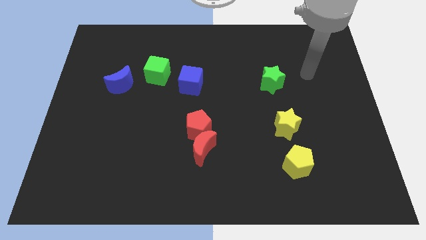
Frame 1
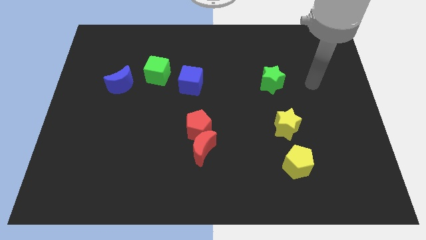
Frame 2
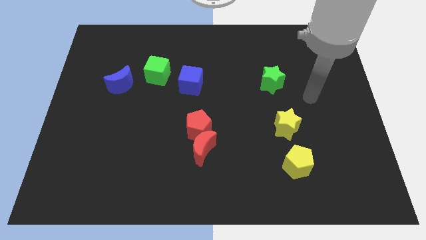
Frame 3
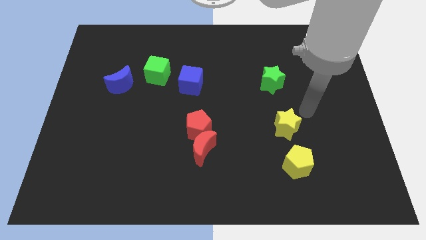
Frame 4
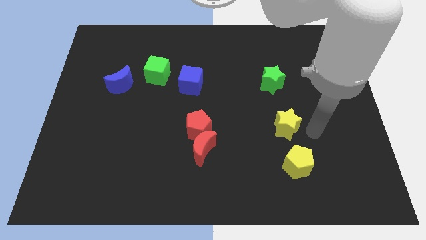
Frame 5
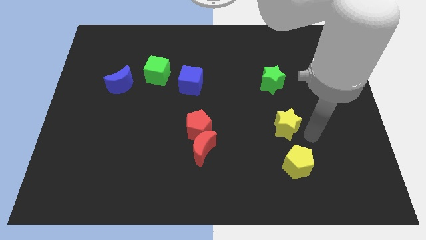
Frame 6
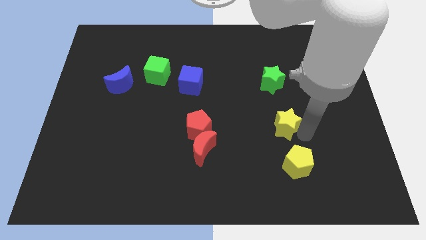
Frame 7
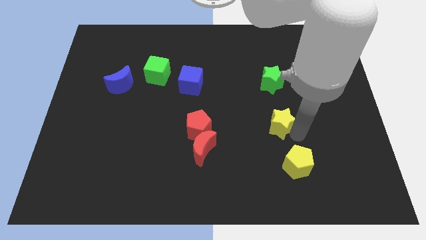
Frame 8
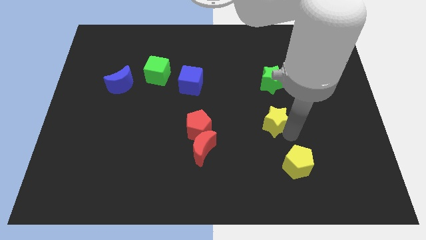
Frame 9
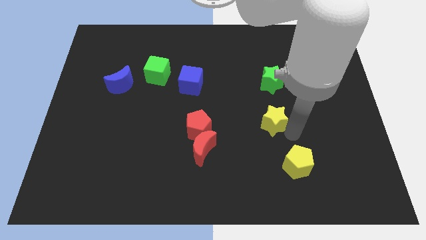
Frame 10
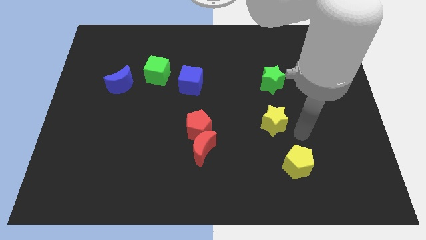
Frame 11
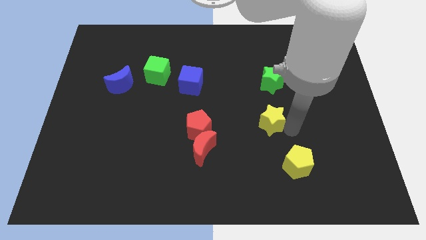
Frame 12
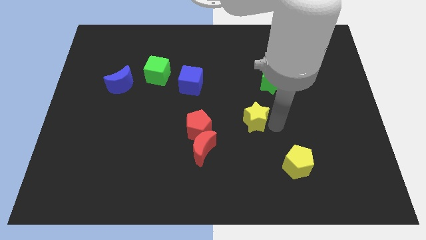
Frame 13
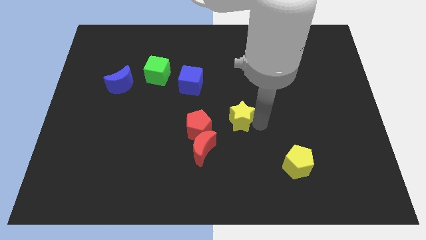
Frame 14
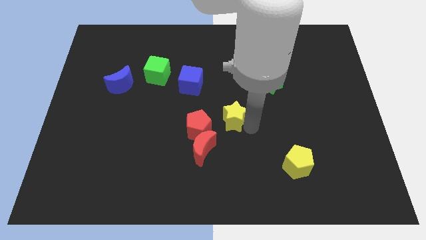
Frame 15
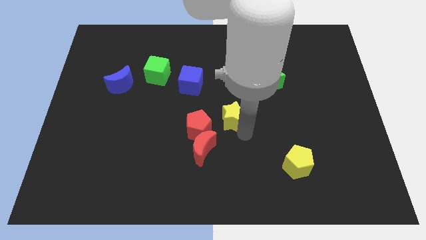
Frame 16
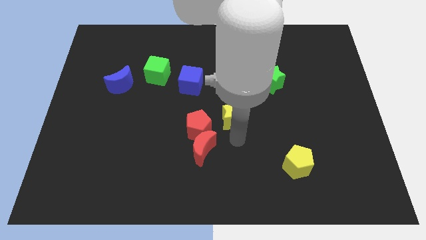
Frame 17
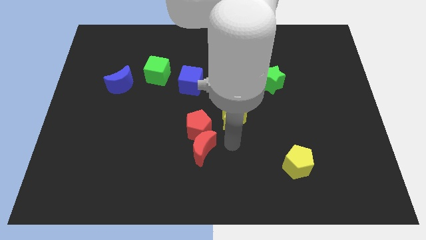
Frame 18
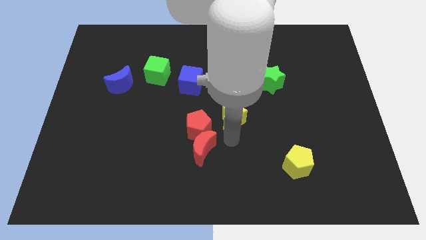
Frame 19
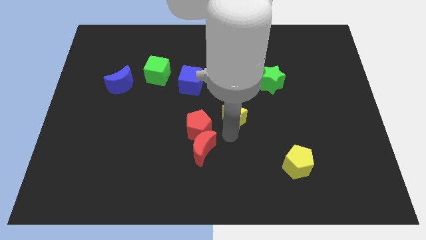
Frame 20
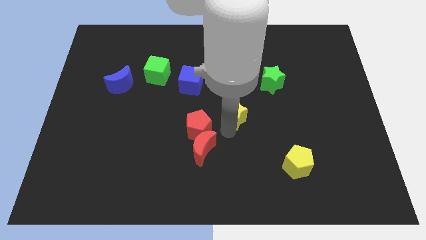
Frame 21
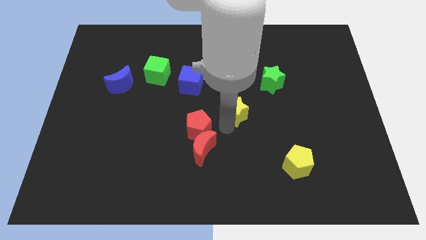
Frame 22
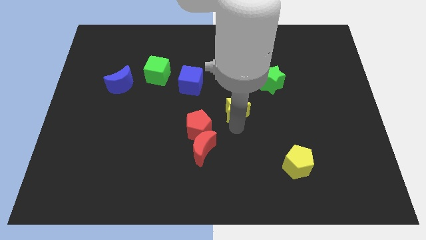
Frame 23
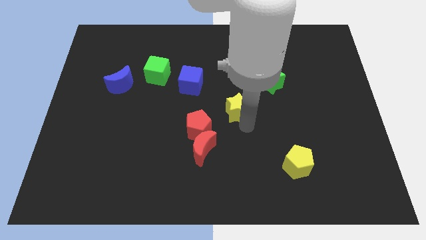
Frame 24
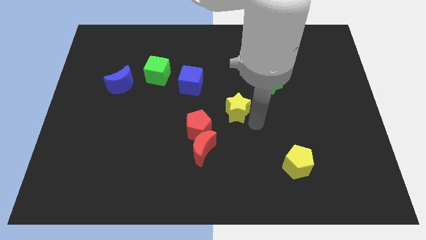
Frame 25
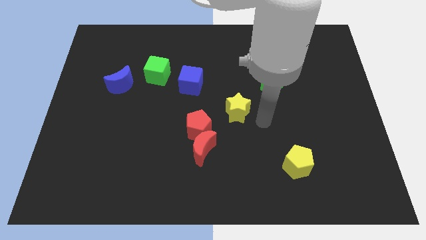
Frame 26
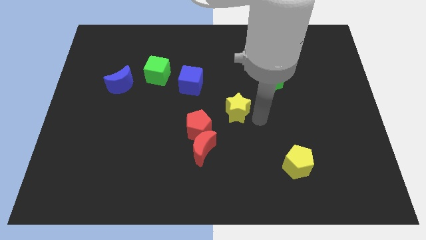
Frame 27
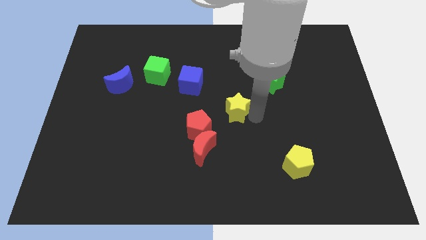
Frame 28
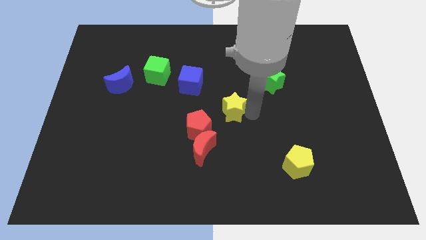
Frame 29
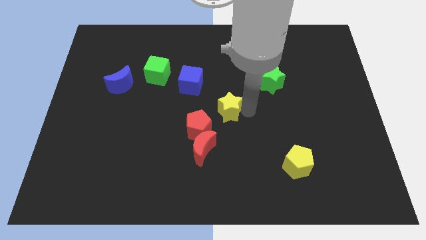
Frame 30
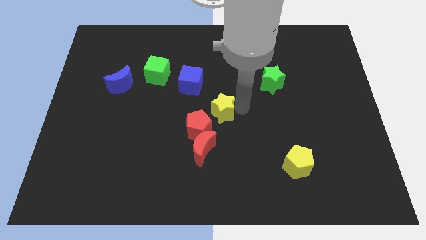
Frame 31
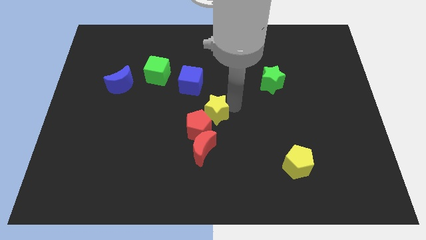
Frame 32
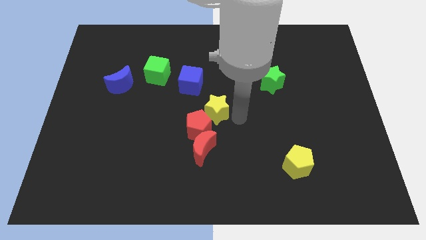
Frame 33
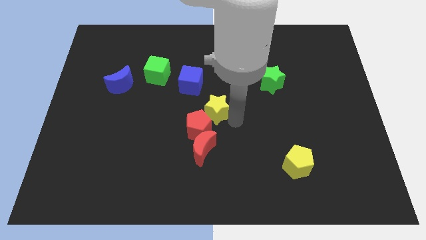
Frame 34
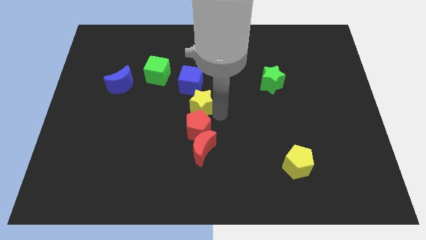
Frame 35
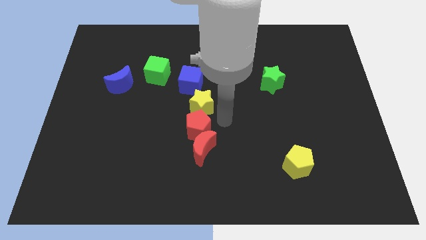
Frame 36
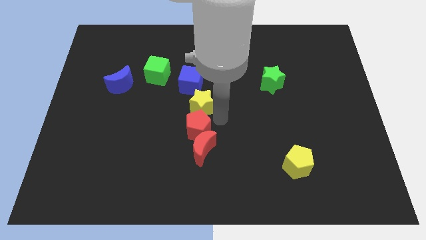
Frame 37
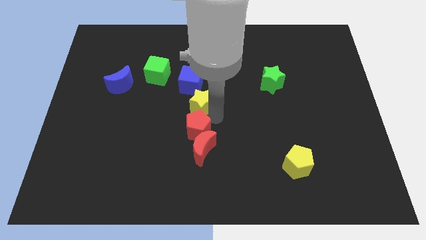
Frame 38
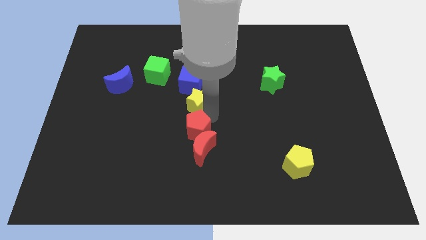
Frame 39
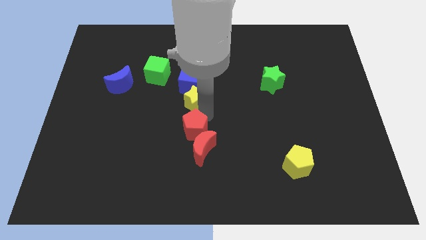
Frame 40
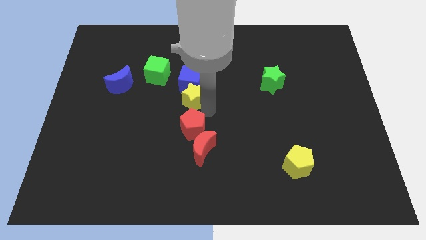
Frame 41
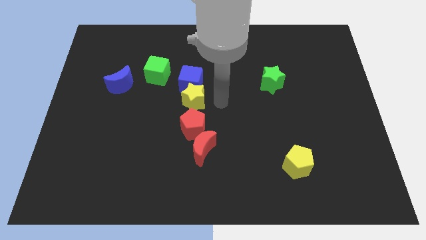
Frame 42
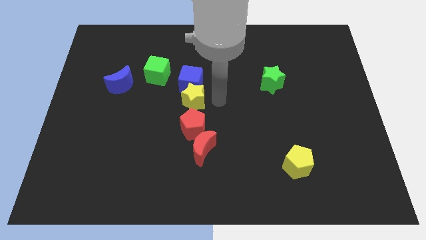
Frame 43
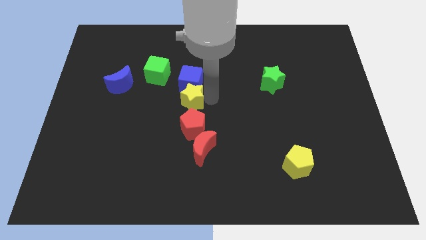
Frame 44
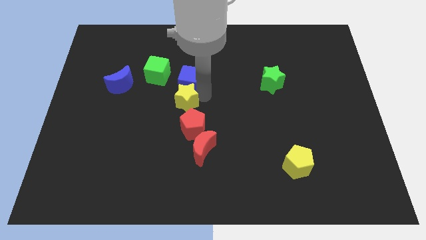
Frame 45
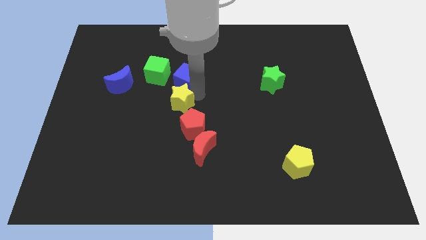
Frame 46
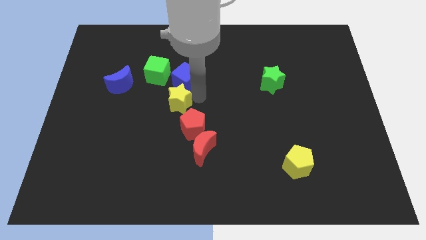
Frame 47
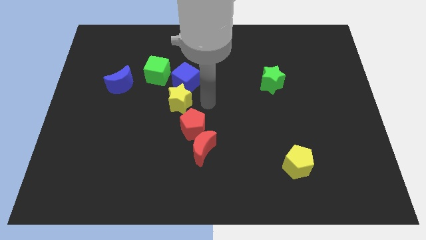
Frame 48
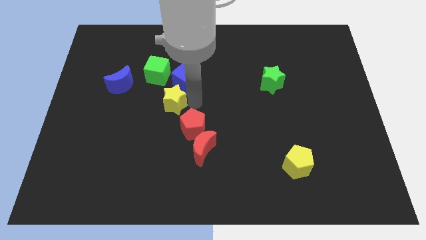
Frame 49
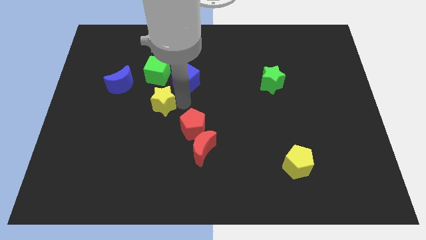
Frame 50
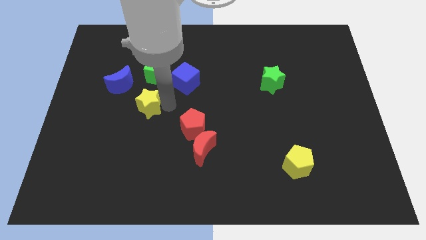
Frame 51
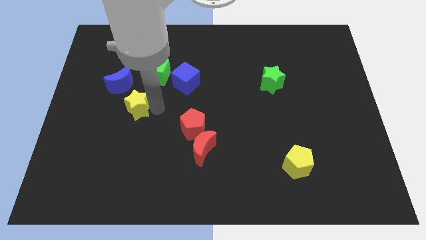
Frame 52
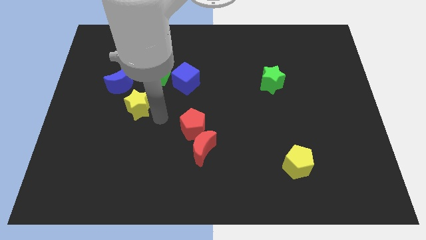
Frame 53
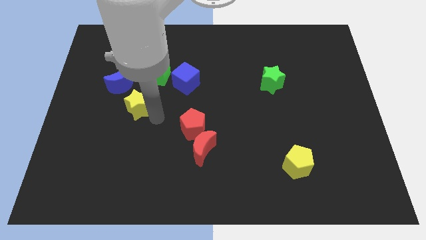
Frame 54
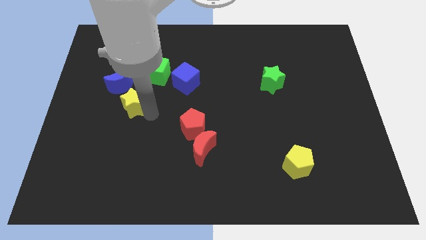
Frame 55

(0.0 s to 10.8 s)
push the yellow star to the bottom left side of the green cube

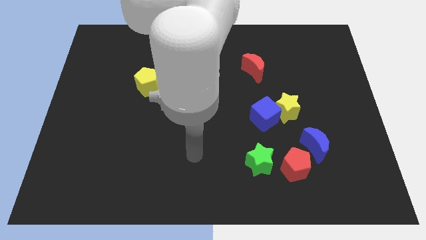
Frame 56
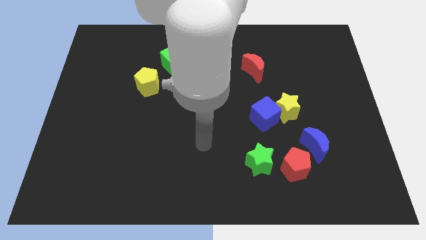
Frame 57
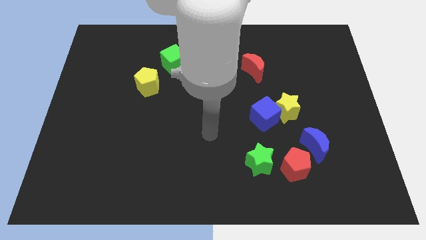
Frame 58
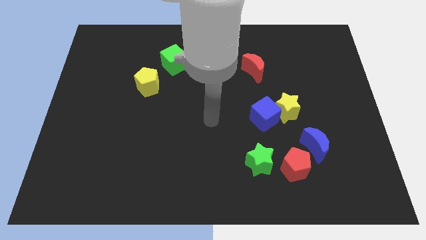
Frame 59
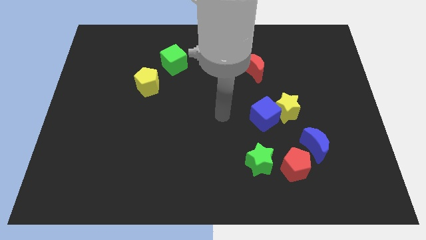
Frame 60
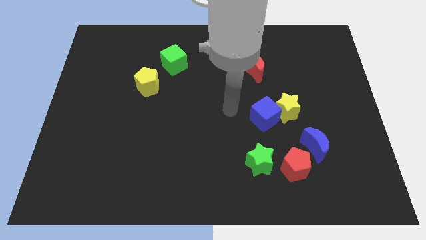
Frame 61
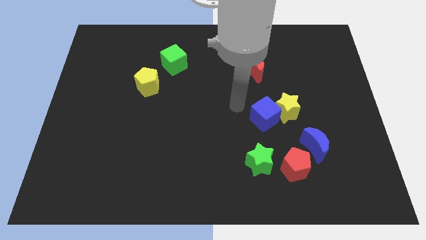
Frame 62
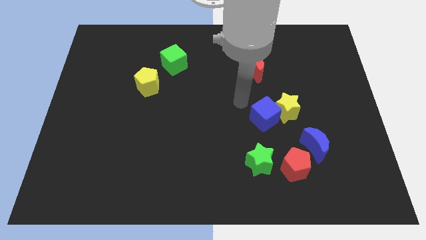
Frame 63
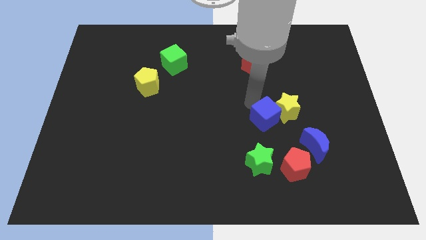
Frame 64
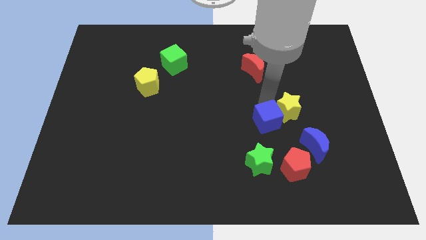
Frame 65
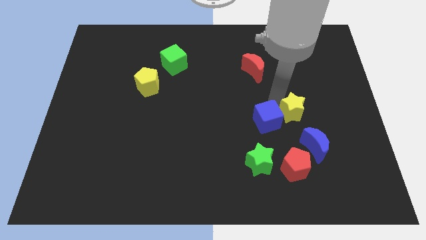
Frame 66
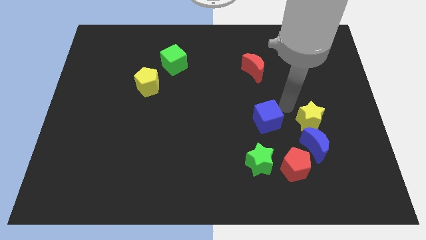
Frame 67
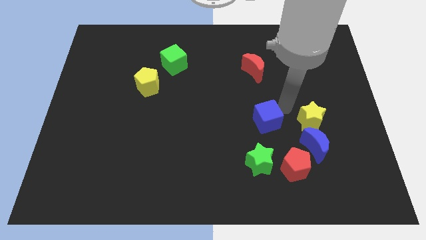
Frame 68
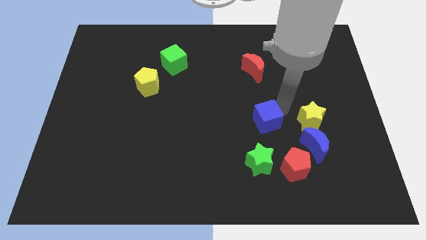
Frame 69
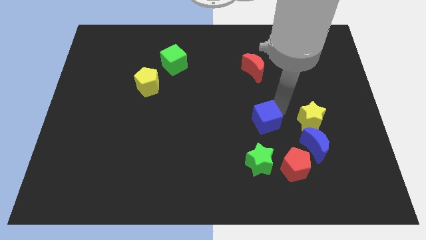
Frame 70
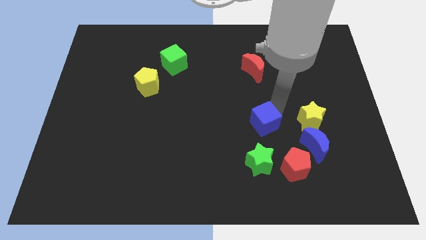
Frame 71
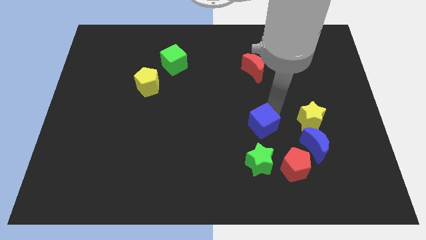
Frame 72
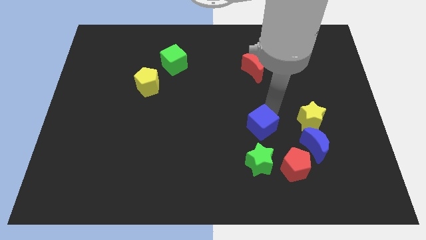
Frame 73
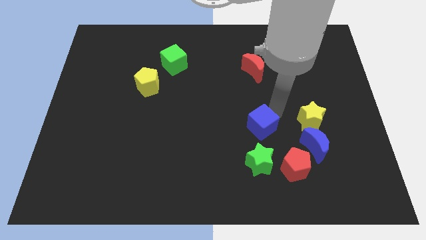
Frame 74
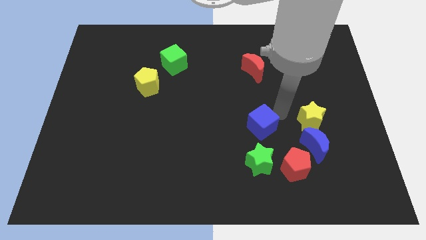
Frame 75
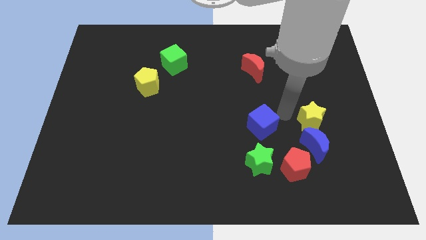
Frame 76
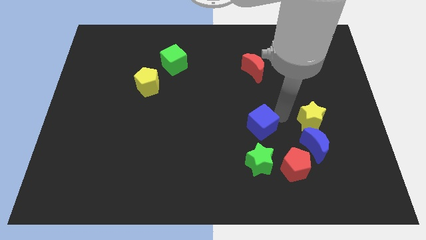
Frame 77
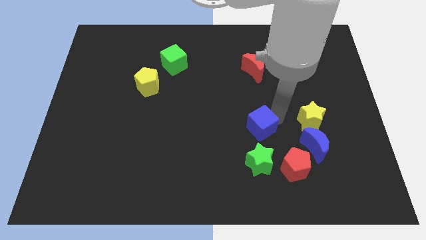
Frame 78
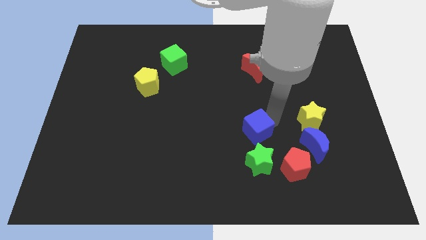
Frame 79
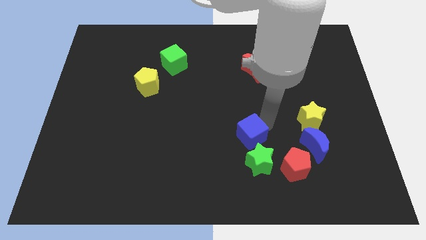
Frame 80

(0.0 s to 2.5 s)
push the blue cube to the top left side of the green star
